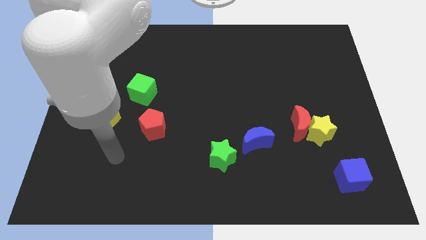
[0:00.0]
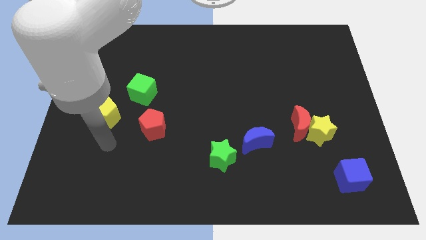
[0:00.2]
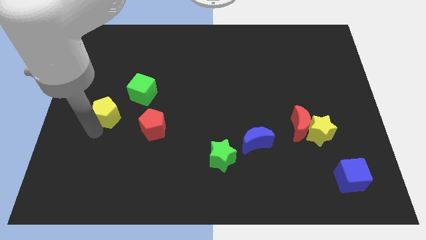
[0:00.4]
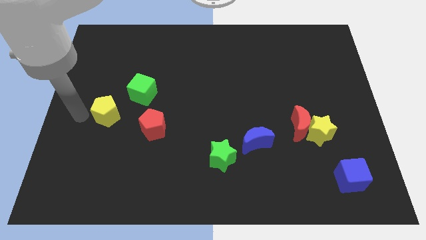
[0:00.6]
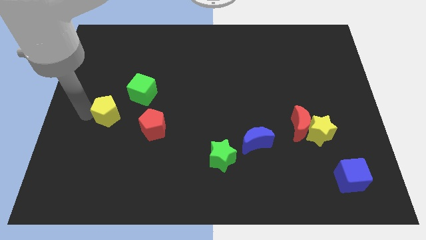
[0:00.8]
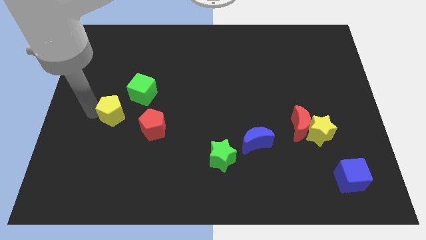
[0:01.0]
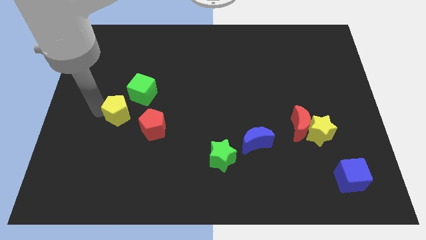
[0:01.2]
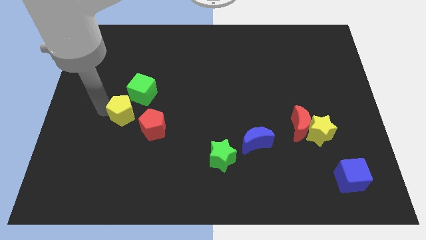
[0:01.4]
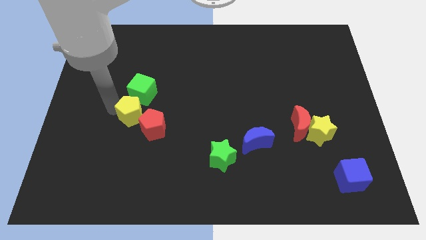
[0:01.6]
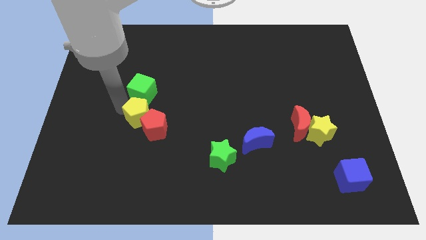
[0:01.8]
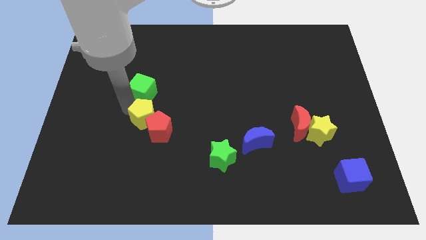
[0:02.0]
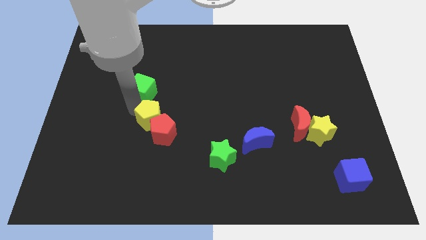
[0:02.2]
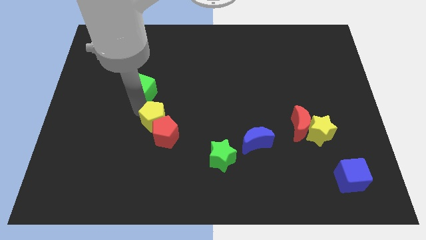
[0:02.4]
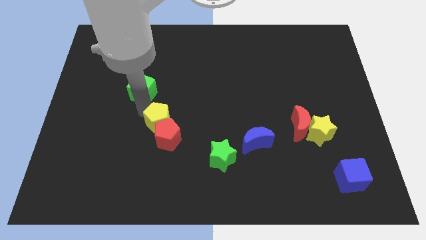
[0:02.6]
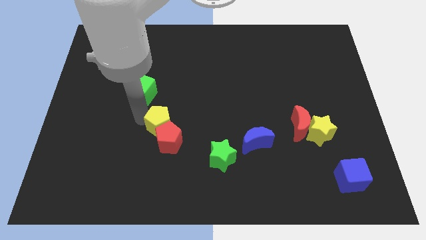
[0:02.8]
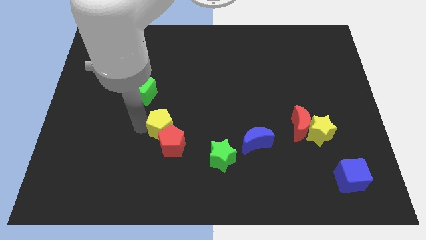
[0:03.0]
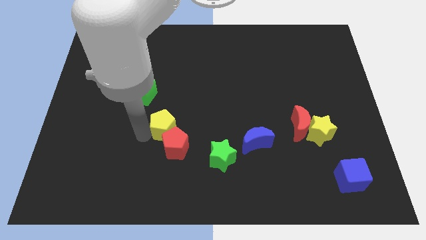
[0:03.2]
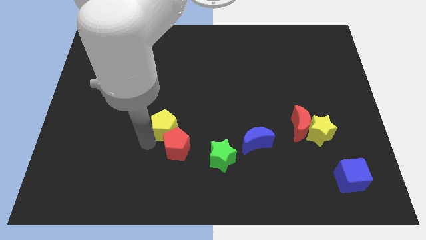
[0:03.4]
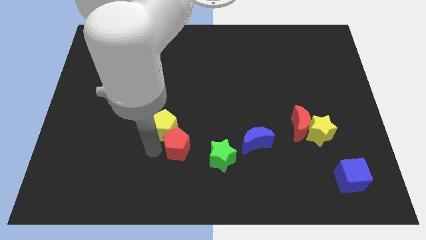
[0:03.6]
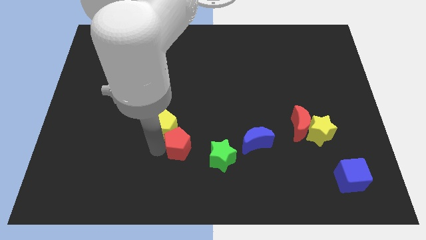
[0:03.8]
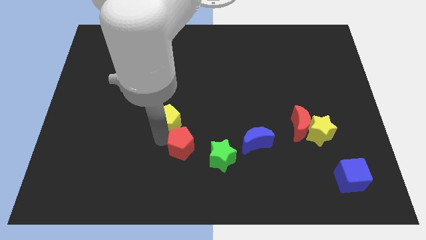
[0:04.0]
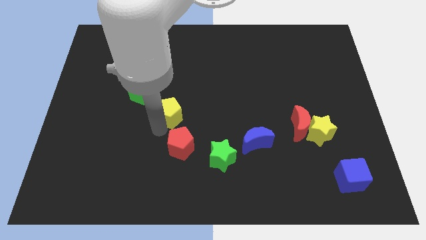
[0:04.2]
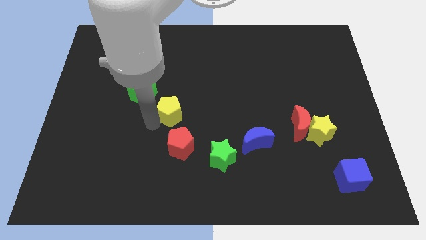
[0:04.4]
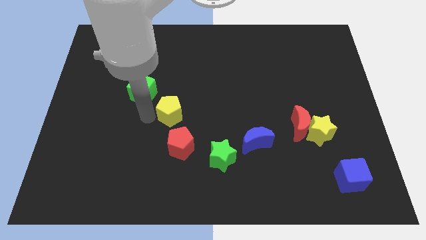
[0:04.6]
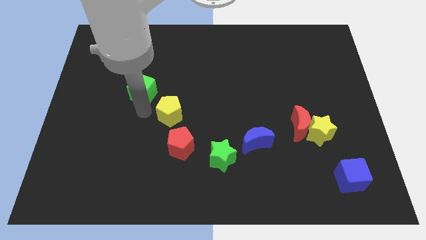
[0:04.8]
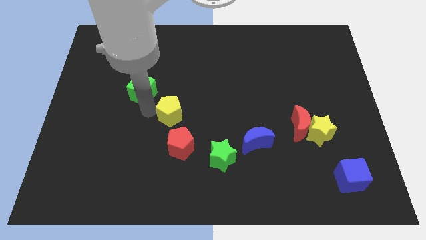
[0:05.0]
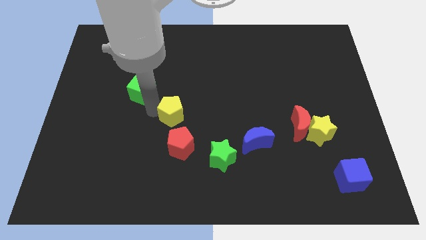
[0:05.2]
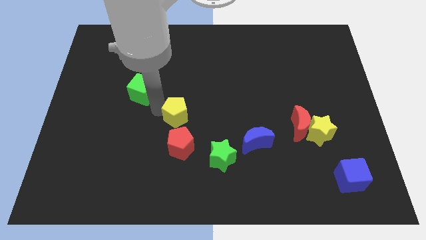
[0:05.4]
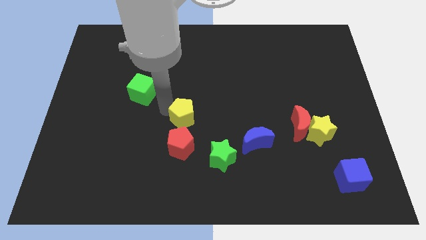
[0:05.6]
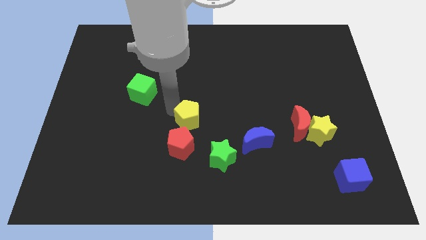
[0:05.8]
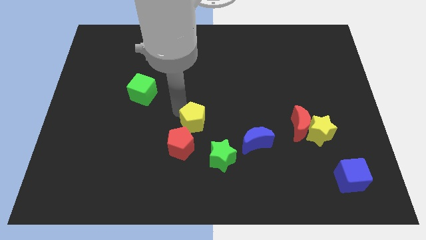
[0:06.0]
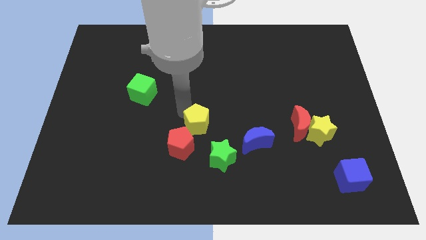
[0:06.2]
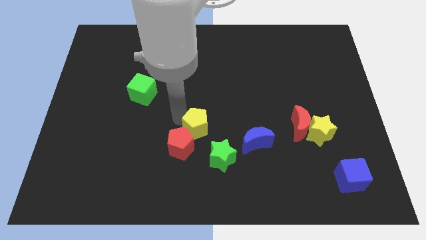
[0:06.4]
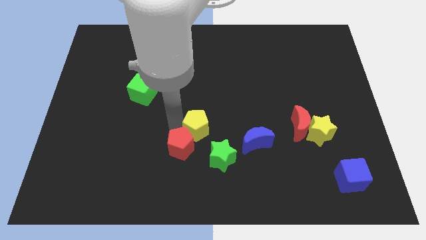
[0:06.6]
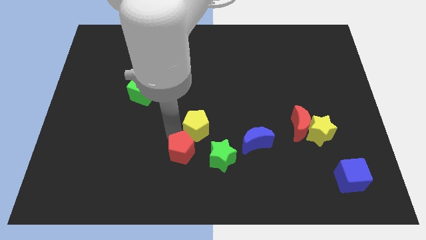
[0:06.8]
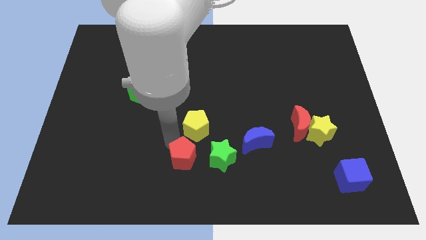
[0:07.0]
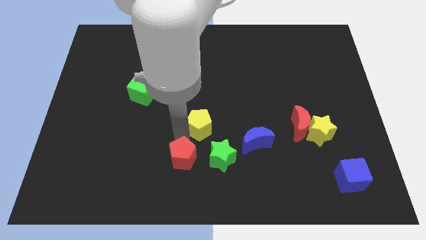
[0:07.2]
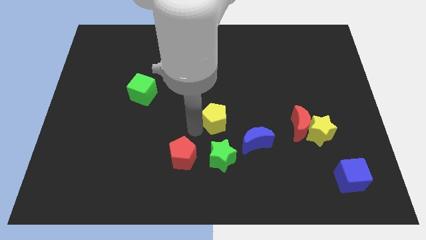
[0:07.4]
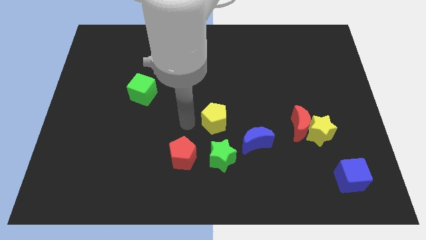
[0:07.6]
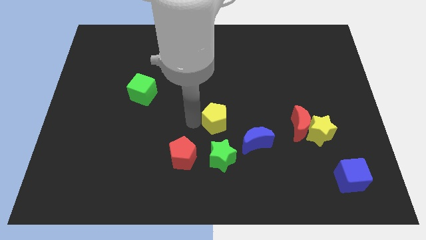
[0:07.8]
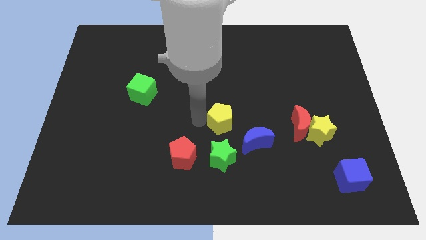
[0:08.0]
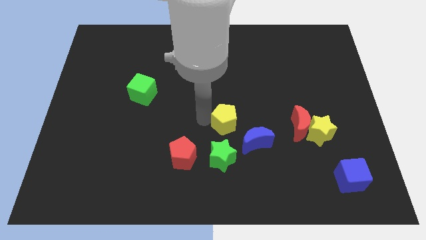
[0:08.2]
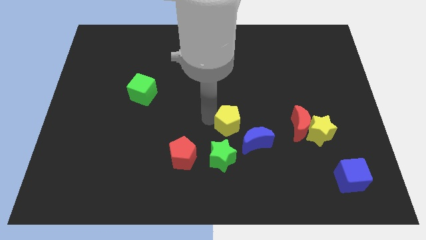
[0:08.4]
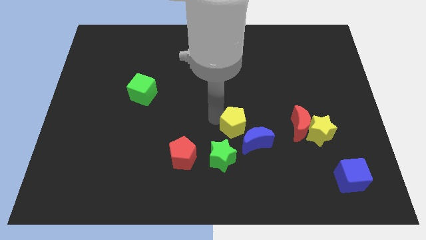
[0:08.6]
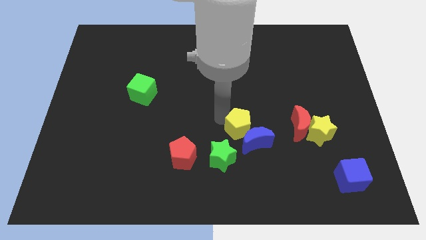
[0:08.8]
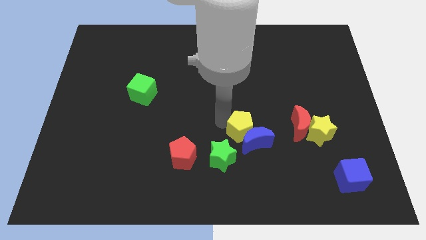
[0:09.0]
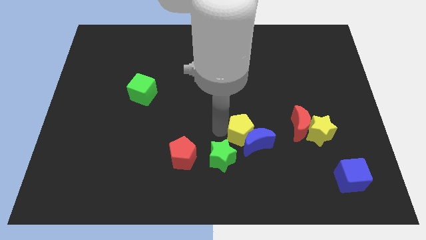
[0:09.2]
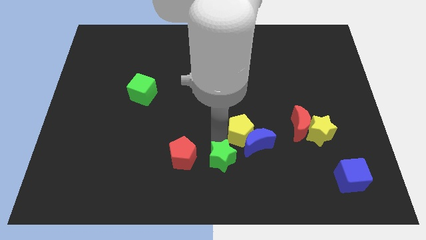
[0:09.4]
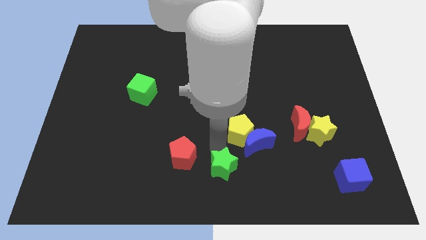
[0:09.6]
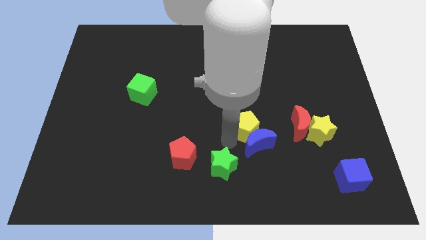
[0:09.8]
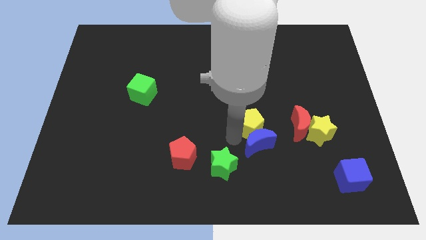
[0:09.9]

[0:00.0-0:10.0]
push the yellow pentagon to the top right of the blue moon

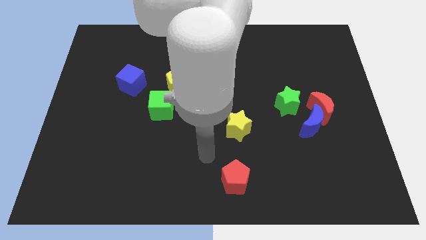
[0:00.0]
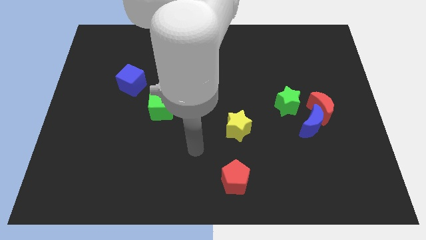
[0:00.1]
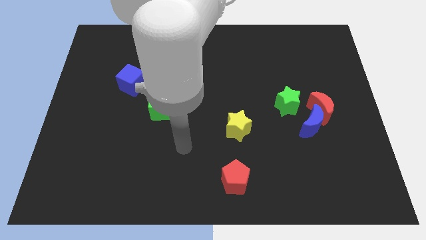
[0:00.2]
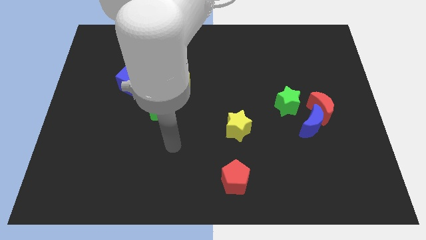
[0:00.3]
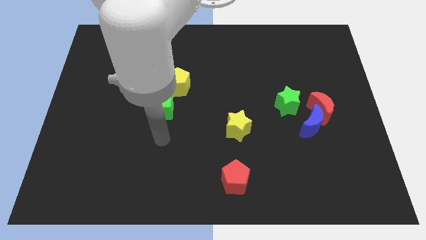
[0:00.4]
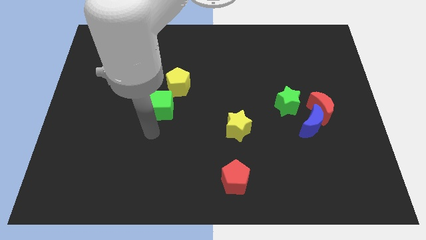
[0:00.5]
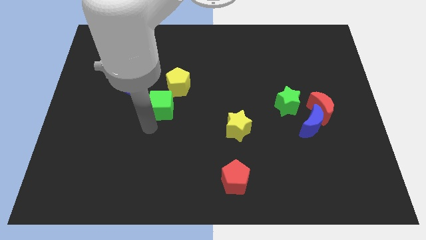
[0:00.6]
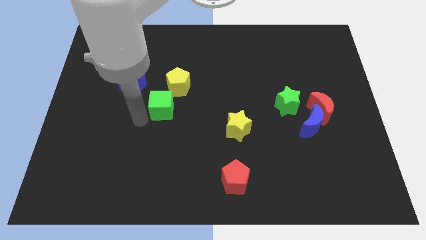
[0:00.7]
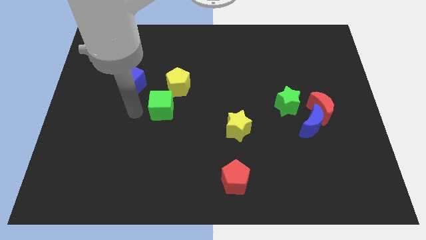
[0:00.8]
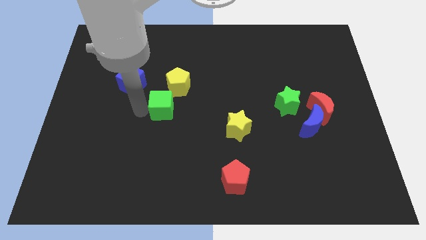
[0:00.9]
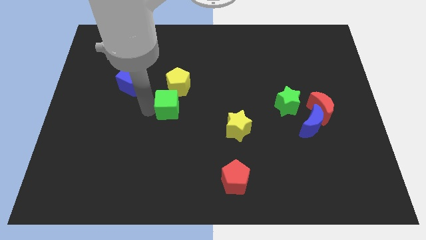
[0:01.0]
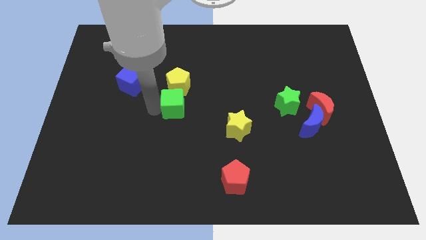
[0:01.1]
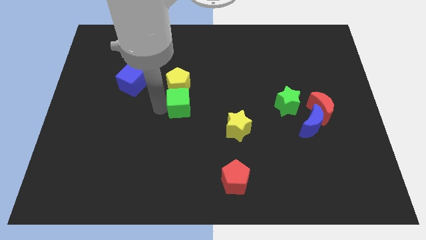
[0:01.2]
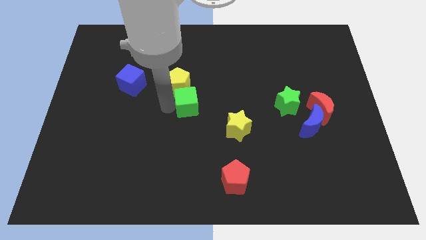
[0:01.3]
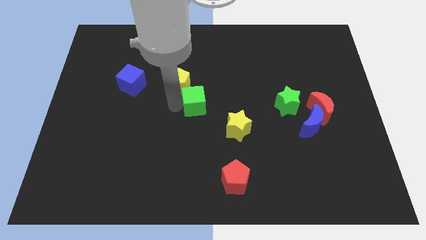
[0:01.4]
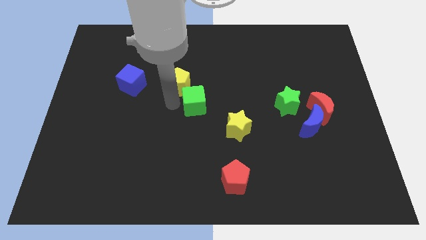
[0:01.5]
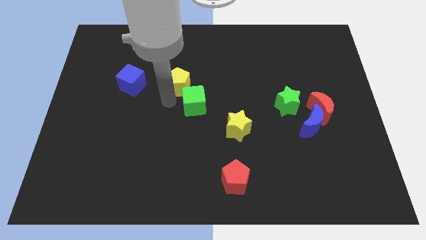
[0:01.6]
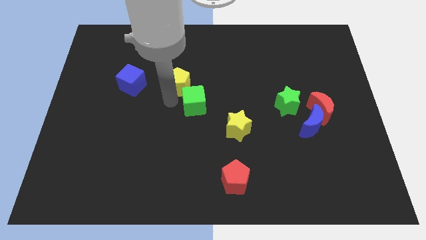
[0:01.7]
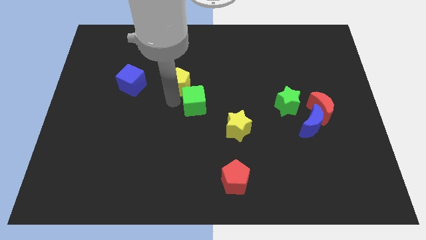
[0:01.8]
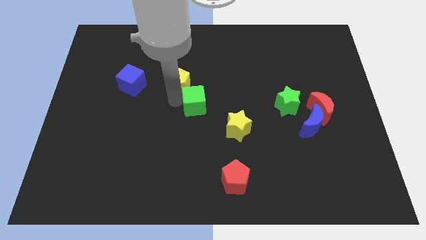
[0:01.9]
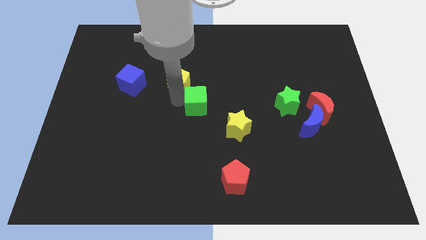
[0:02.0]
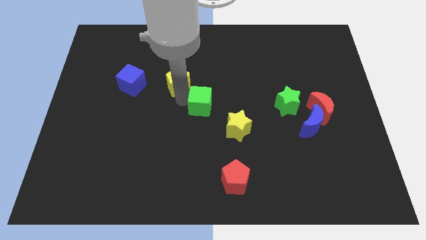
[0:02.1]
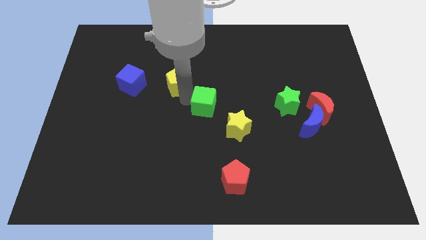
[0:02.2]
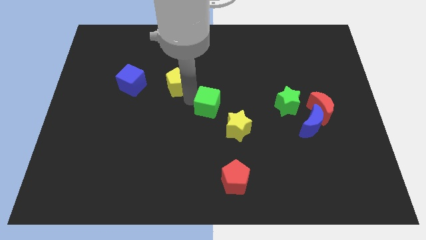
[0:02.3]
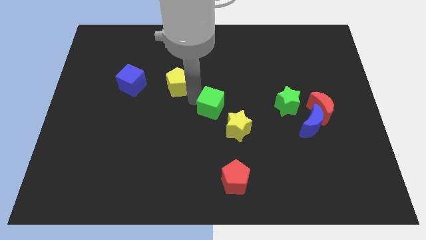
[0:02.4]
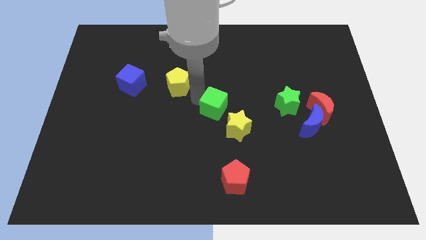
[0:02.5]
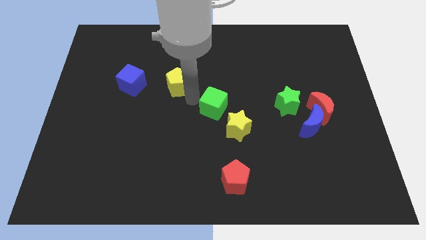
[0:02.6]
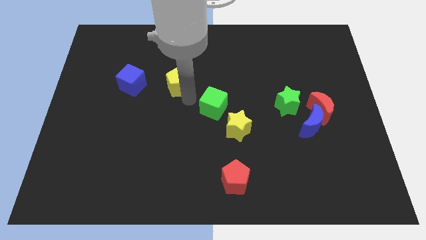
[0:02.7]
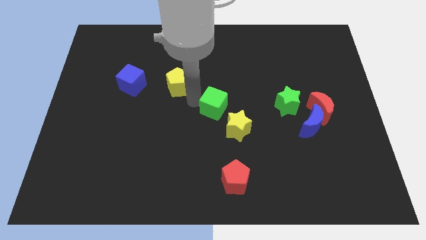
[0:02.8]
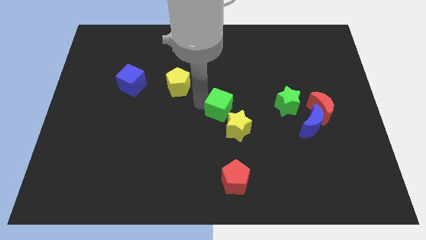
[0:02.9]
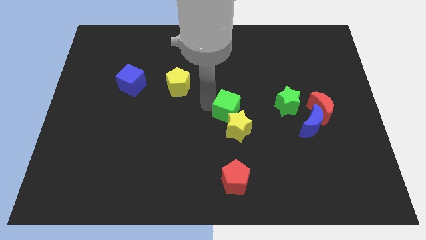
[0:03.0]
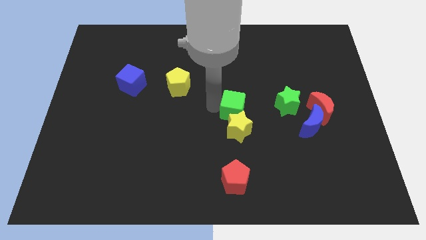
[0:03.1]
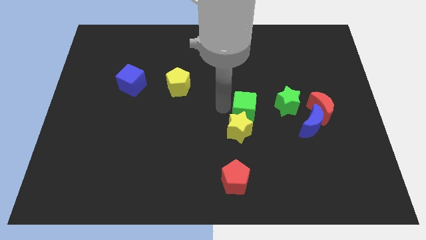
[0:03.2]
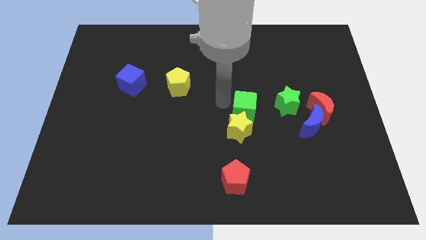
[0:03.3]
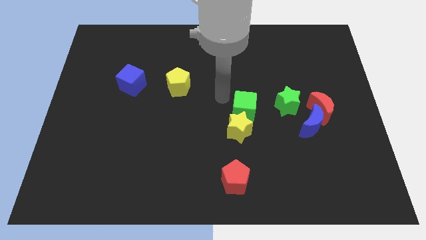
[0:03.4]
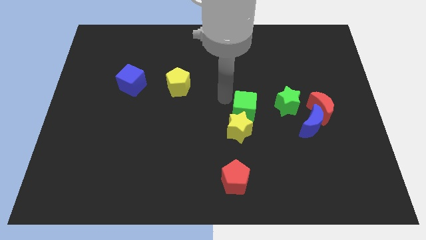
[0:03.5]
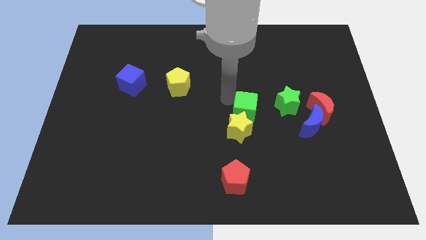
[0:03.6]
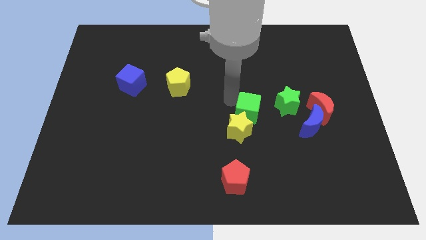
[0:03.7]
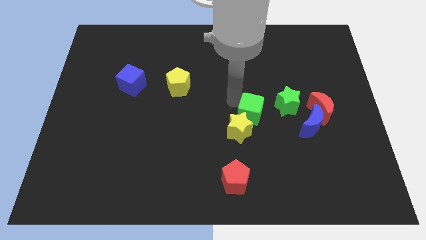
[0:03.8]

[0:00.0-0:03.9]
move the green cube to the bottom left of the green star
